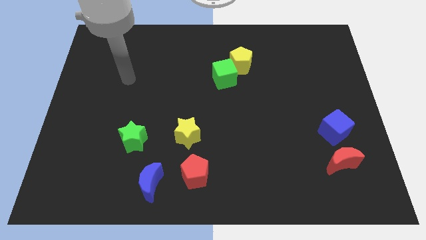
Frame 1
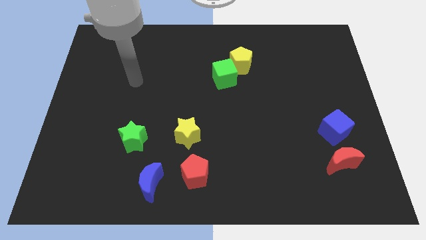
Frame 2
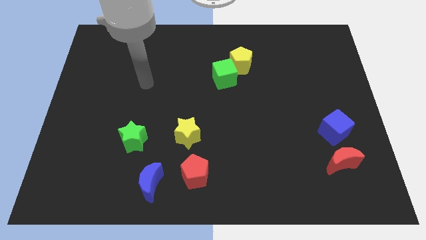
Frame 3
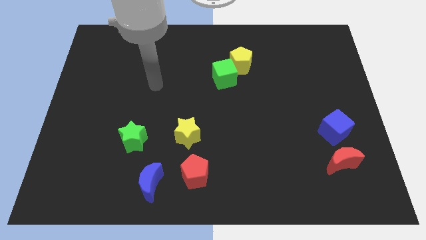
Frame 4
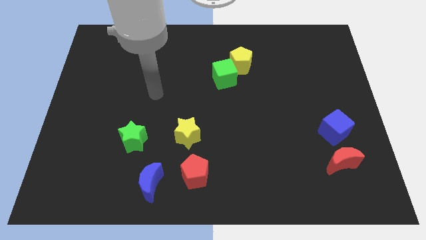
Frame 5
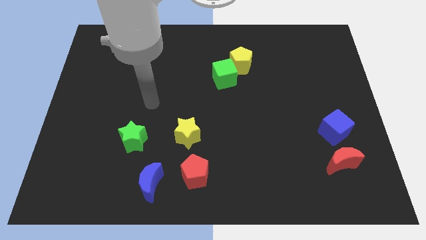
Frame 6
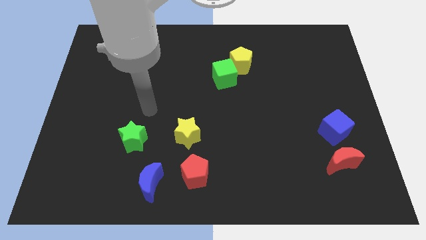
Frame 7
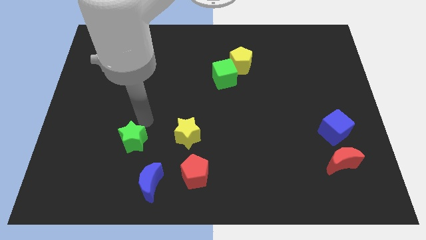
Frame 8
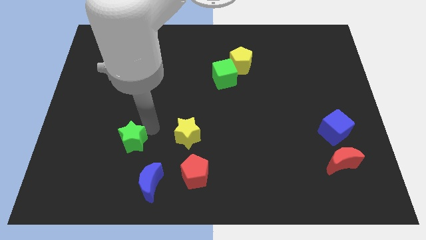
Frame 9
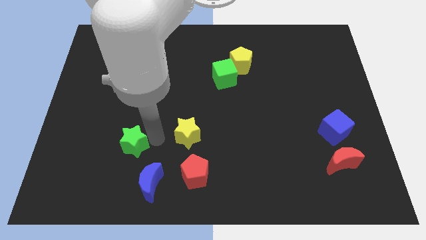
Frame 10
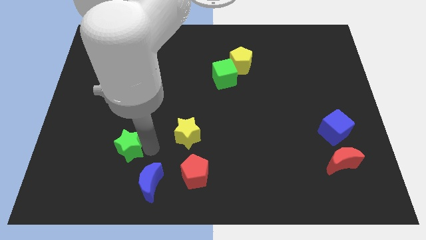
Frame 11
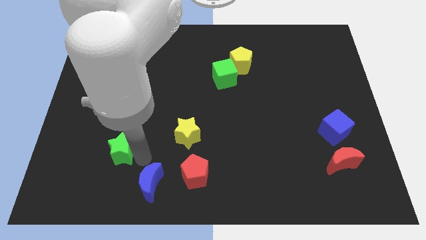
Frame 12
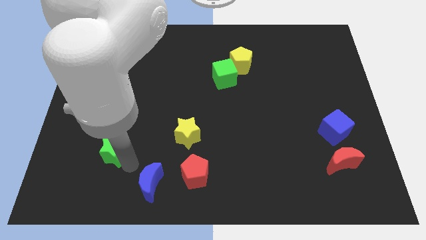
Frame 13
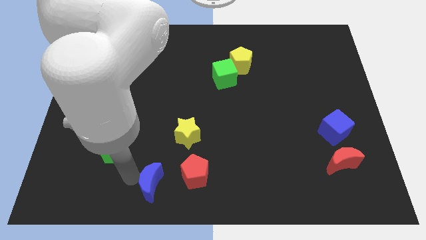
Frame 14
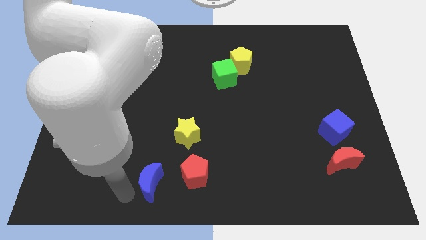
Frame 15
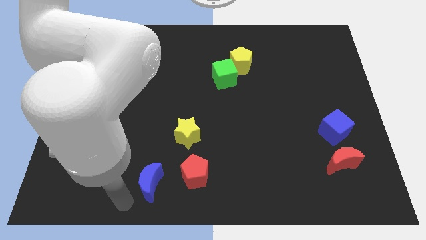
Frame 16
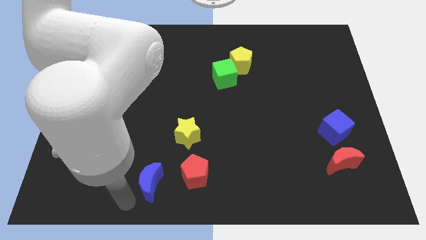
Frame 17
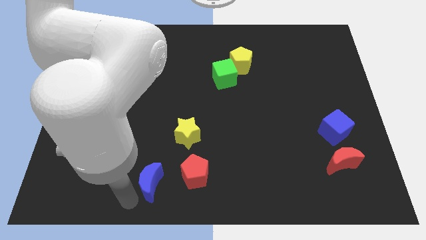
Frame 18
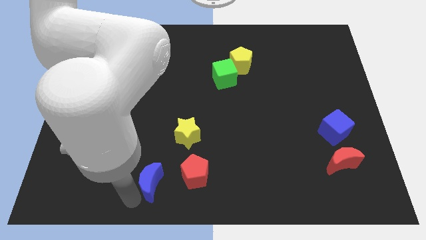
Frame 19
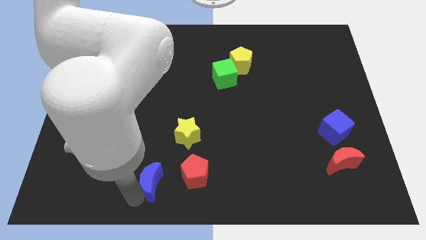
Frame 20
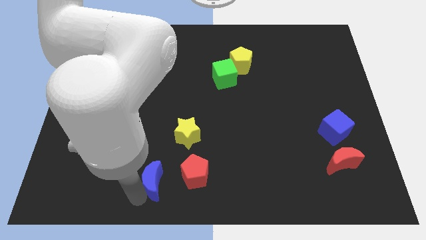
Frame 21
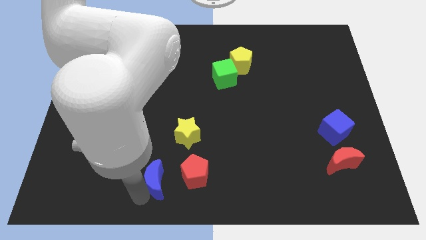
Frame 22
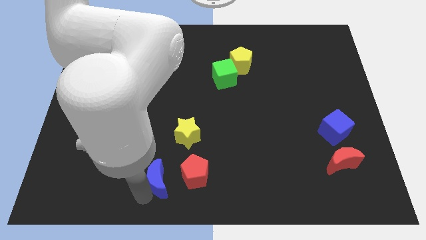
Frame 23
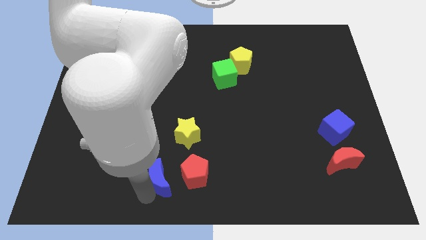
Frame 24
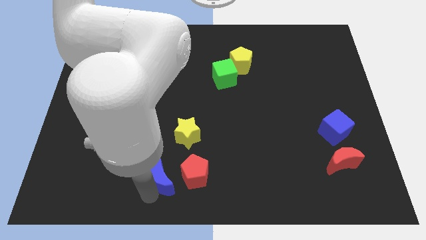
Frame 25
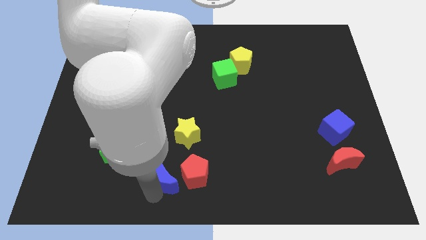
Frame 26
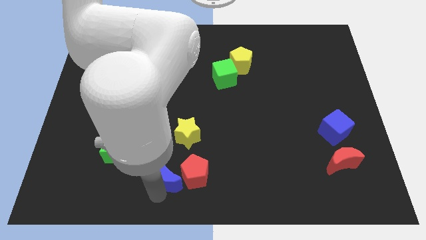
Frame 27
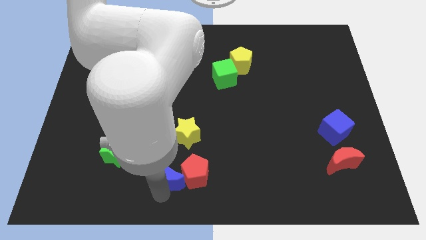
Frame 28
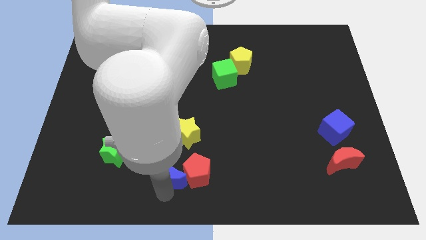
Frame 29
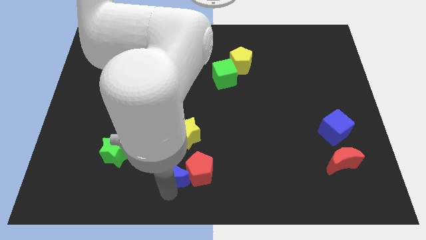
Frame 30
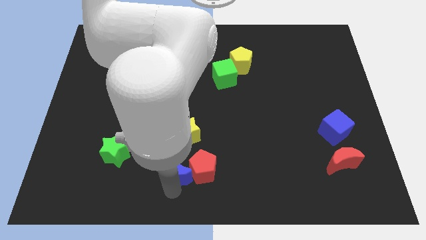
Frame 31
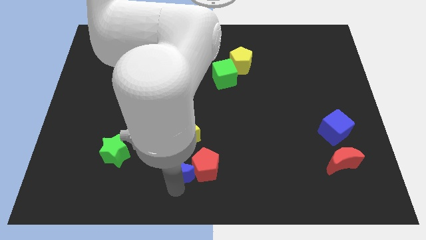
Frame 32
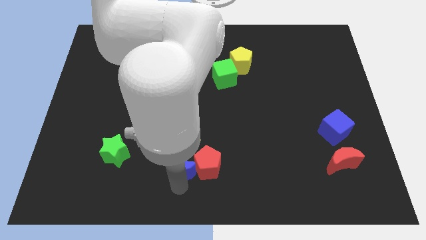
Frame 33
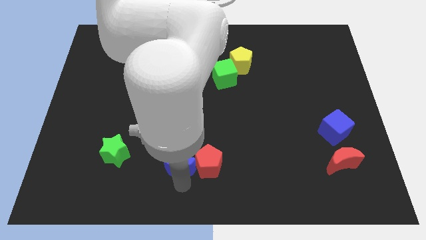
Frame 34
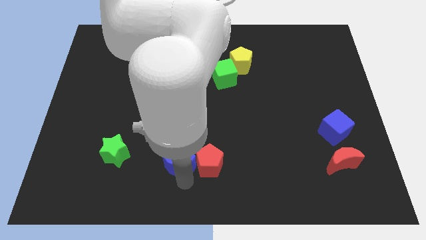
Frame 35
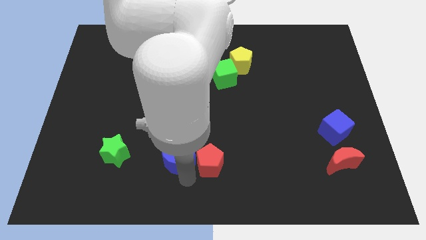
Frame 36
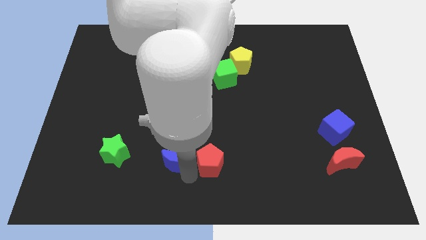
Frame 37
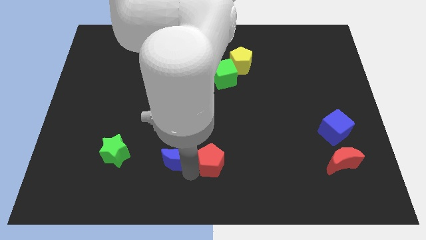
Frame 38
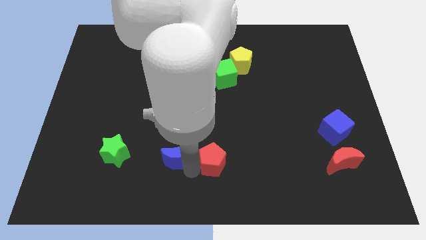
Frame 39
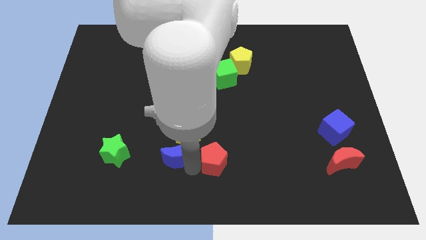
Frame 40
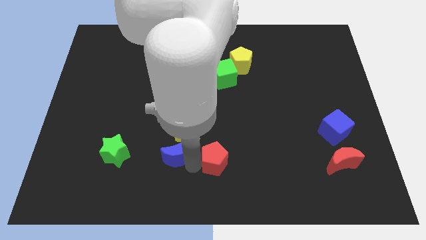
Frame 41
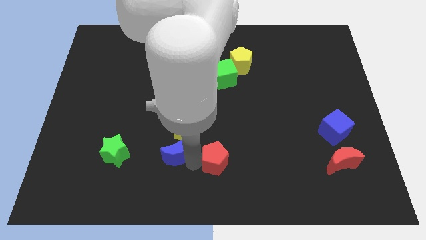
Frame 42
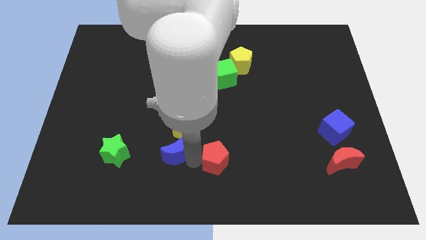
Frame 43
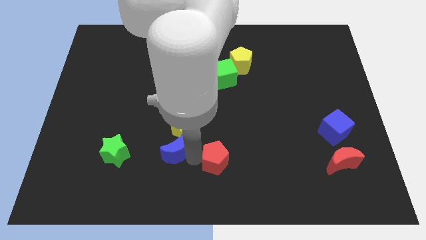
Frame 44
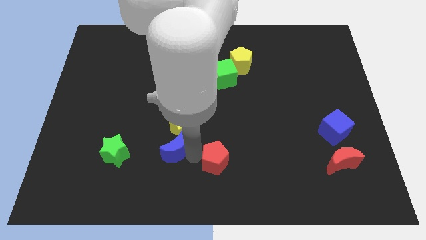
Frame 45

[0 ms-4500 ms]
push the blue moon upwards a little

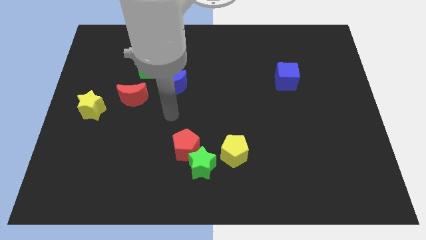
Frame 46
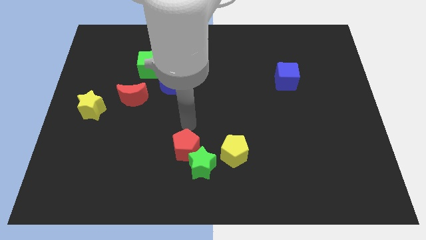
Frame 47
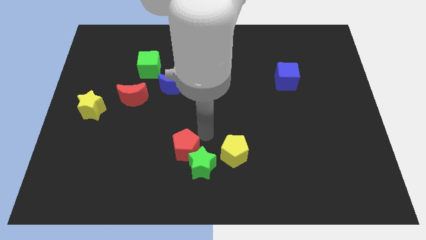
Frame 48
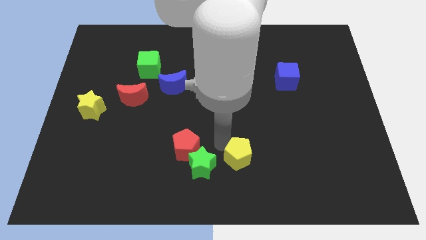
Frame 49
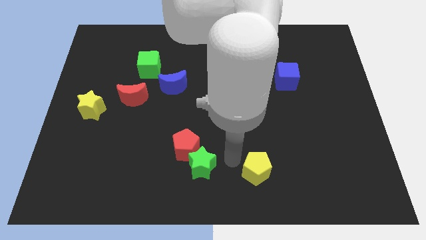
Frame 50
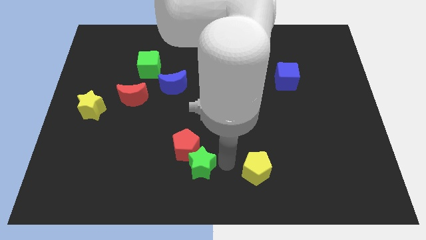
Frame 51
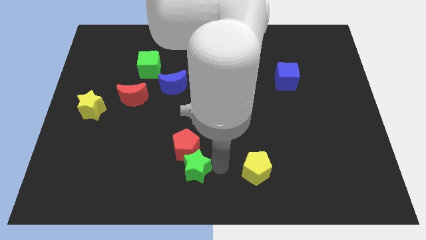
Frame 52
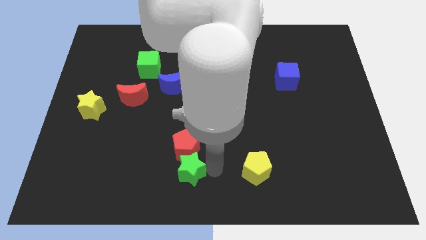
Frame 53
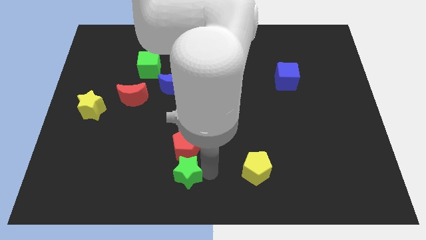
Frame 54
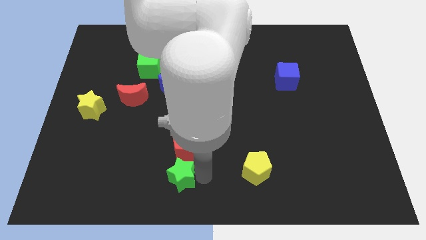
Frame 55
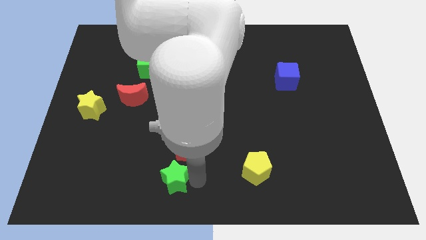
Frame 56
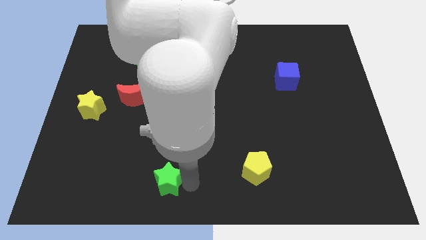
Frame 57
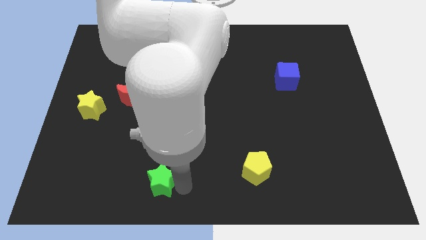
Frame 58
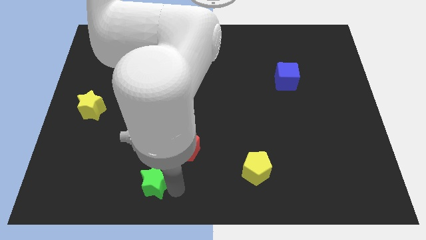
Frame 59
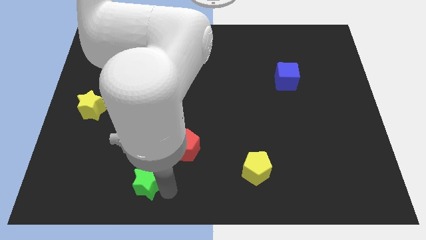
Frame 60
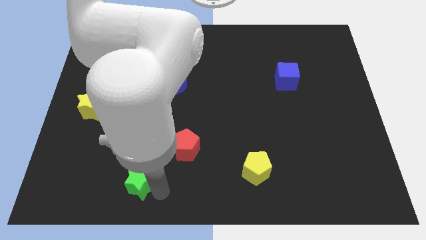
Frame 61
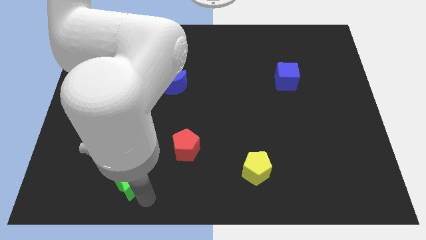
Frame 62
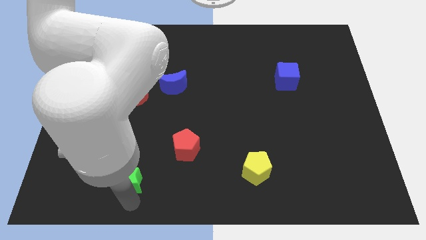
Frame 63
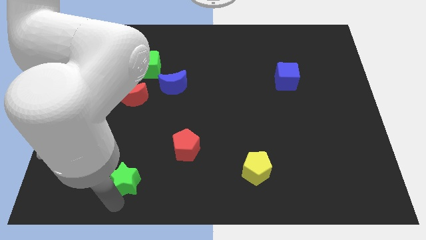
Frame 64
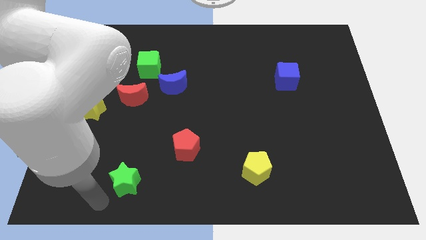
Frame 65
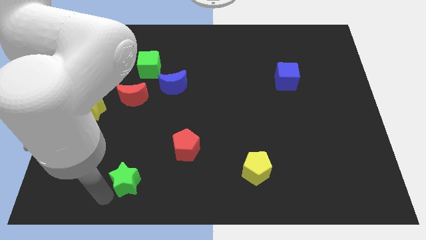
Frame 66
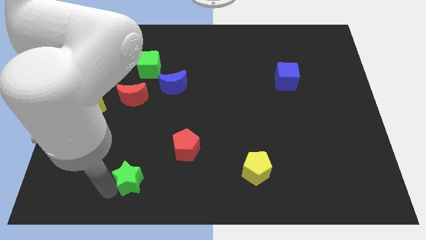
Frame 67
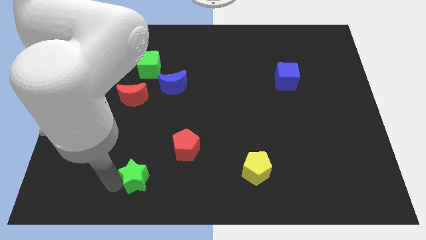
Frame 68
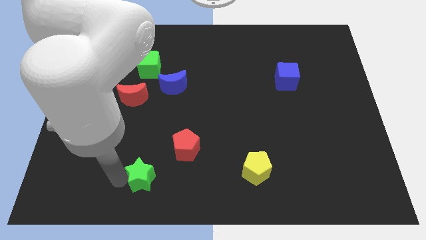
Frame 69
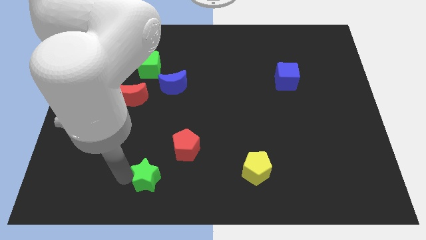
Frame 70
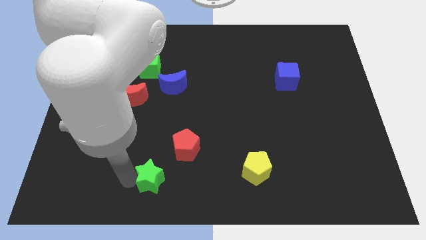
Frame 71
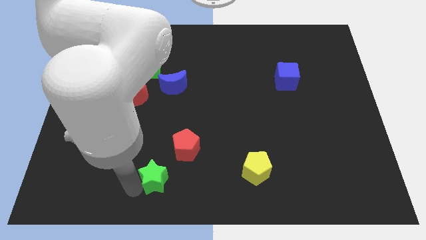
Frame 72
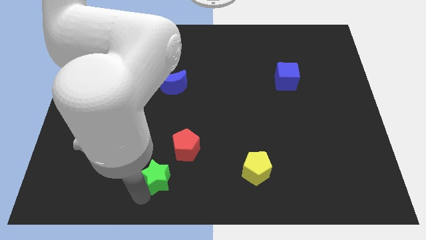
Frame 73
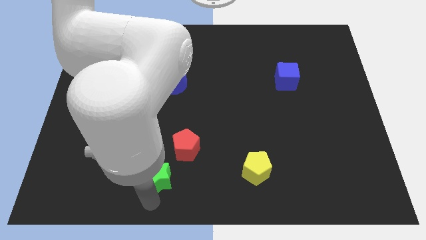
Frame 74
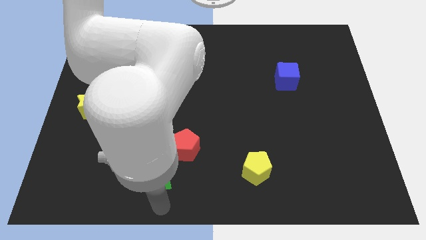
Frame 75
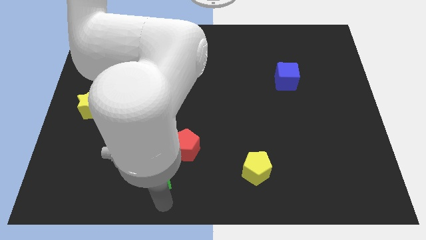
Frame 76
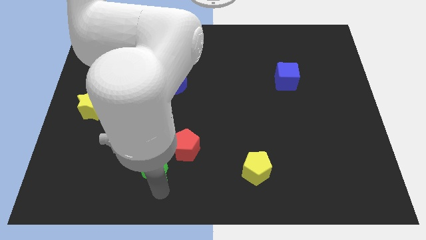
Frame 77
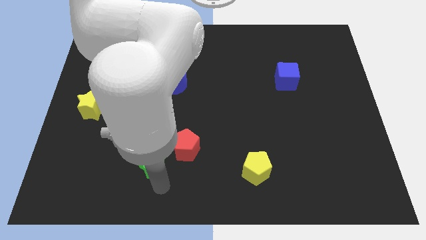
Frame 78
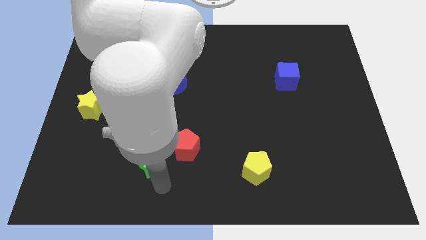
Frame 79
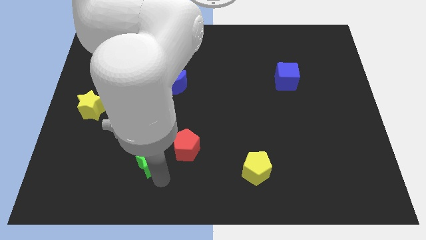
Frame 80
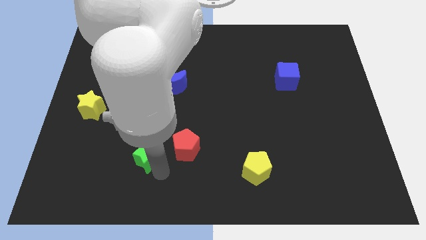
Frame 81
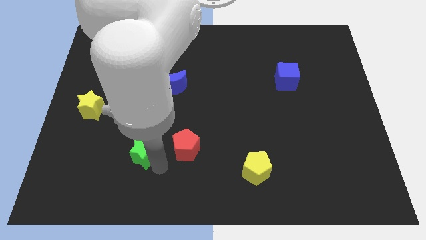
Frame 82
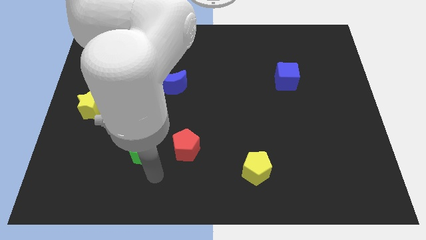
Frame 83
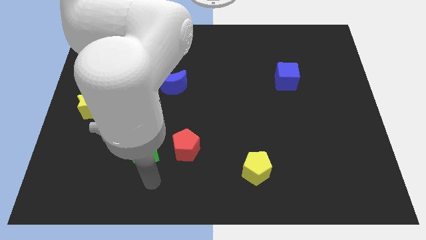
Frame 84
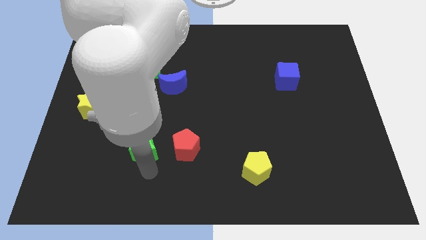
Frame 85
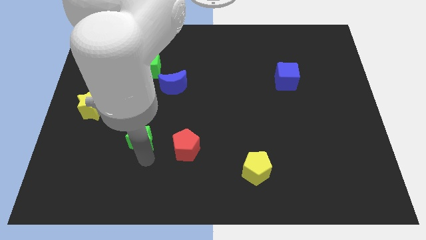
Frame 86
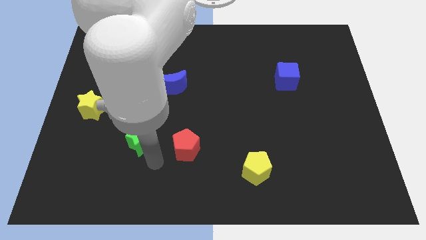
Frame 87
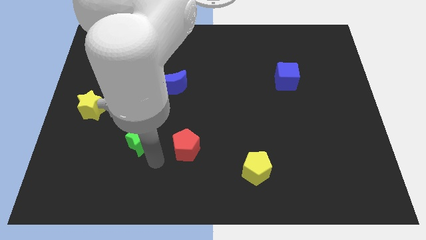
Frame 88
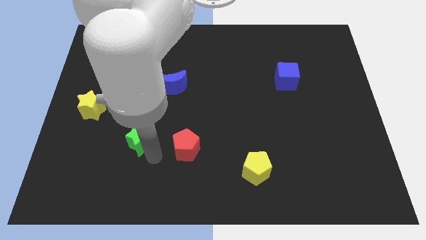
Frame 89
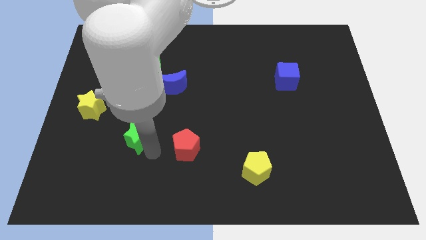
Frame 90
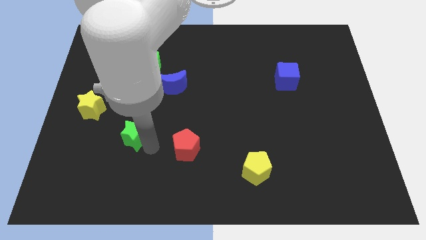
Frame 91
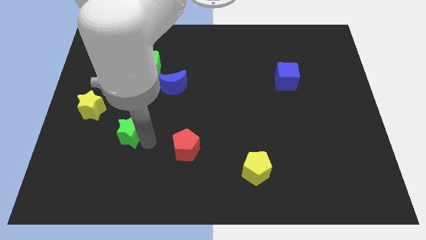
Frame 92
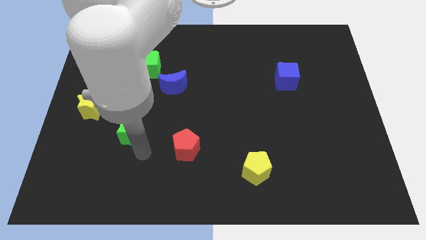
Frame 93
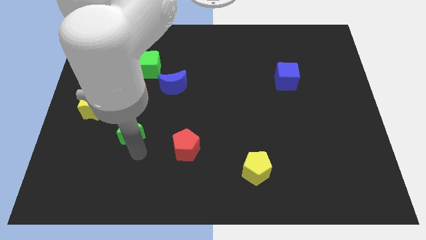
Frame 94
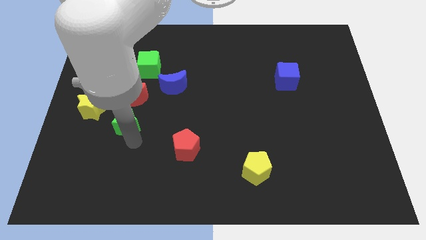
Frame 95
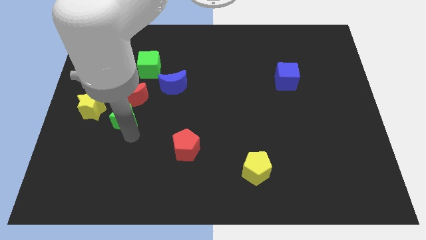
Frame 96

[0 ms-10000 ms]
push the green star upwards and to the left
